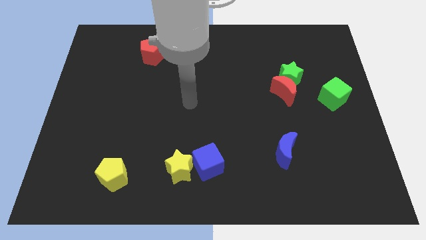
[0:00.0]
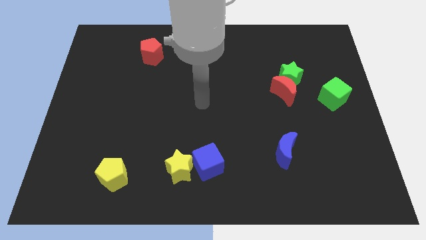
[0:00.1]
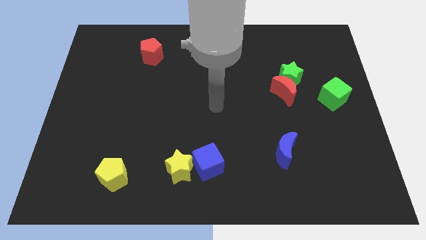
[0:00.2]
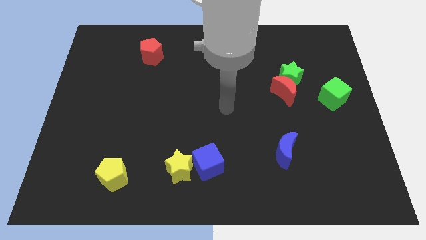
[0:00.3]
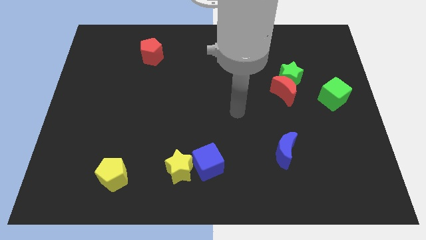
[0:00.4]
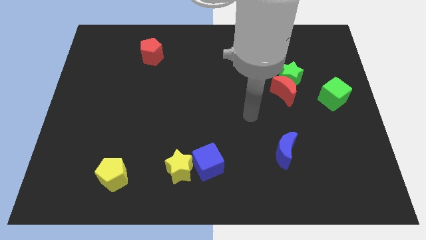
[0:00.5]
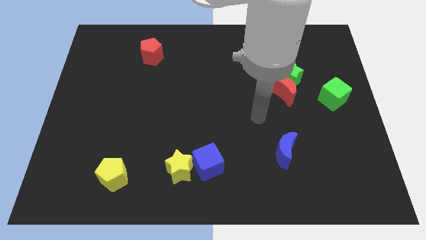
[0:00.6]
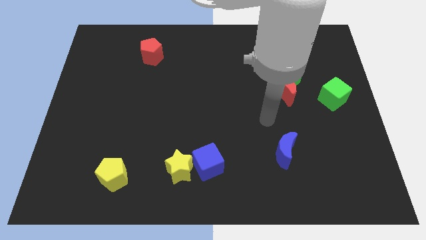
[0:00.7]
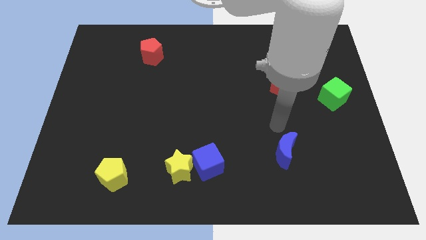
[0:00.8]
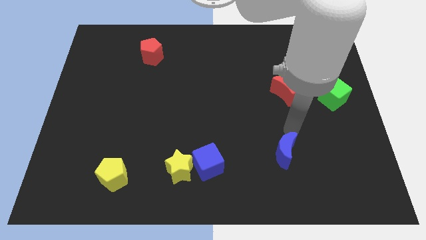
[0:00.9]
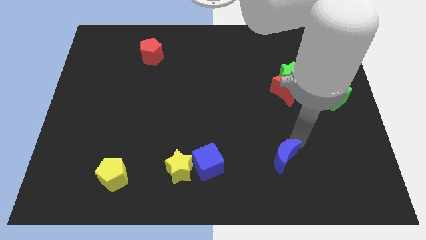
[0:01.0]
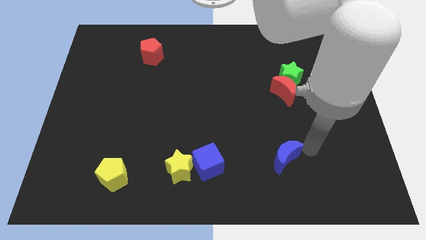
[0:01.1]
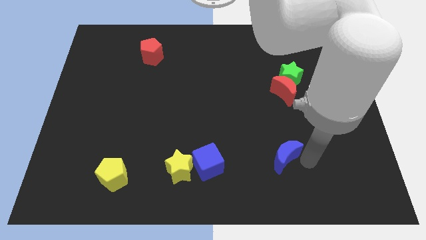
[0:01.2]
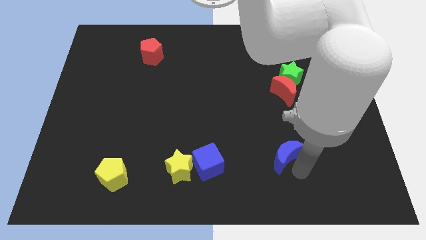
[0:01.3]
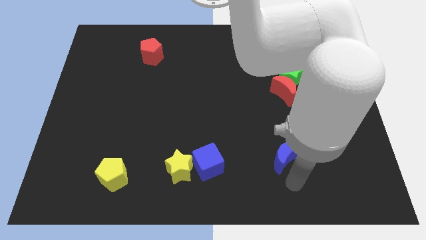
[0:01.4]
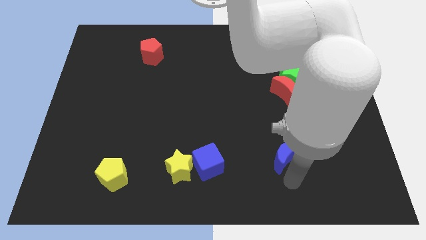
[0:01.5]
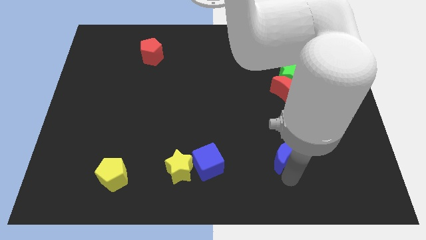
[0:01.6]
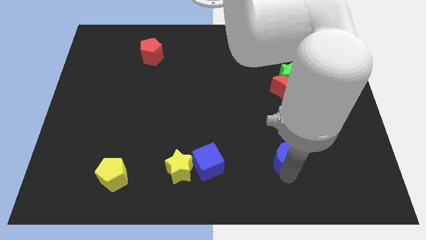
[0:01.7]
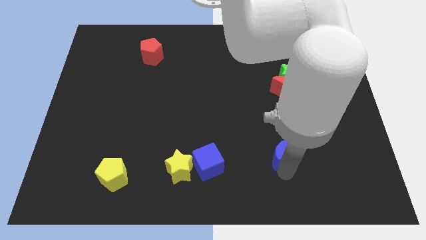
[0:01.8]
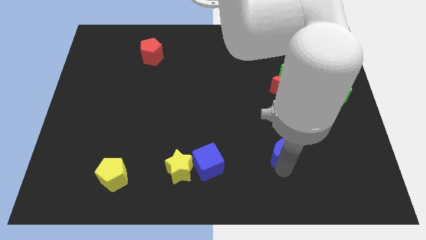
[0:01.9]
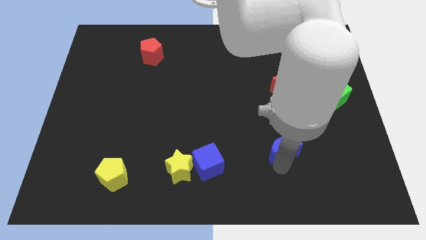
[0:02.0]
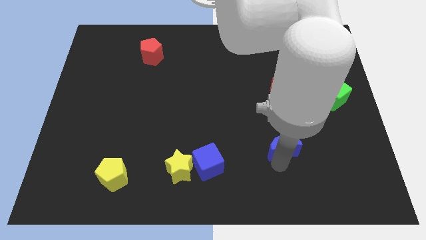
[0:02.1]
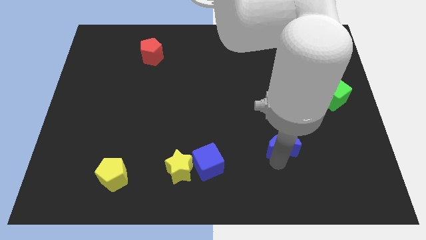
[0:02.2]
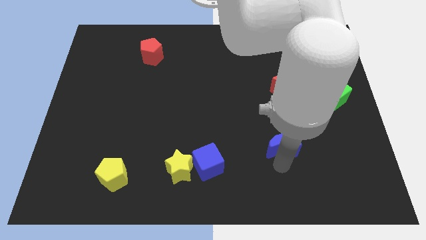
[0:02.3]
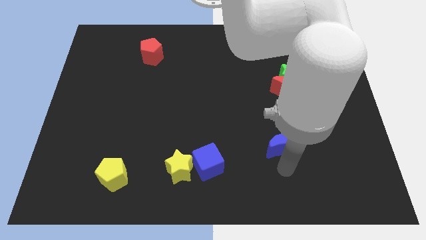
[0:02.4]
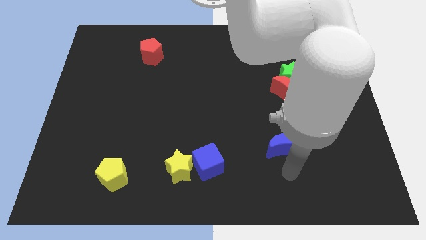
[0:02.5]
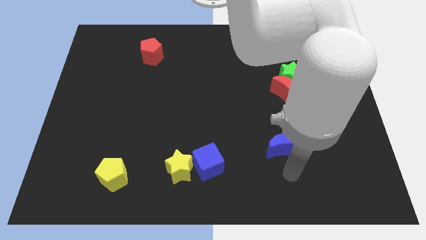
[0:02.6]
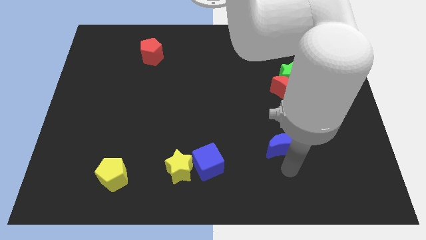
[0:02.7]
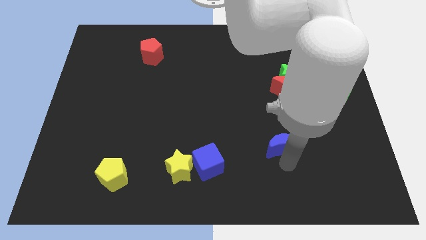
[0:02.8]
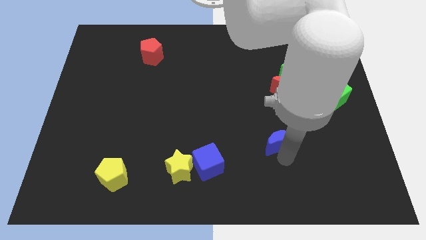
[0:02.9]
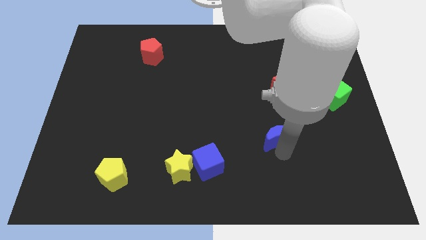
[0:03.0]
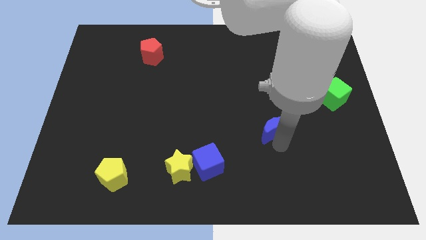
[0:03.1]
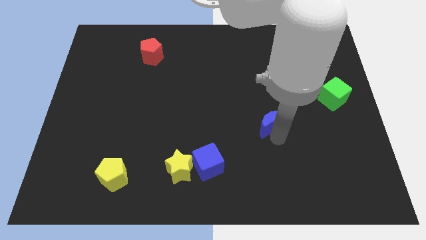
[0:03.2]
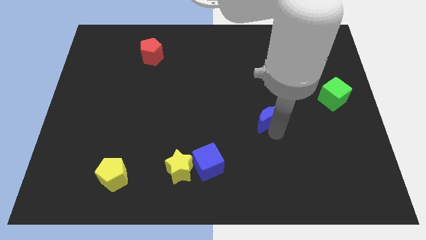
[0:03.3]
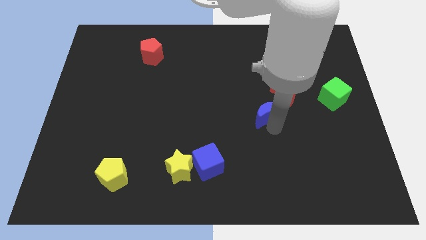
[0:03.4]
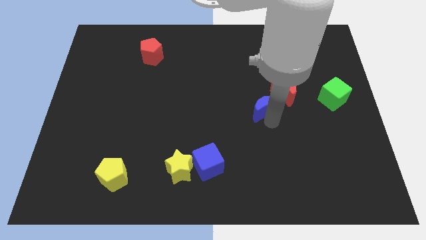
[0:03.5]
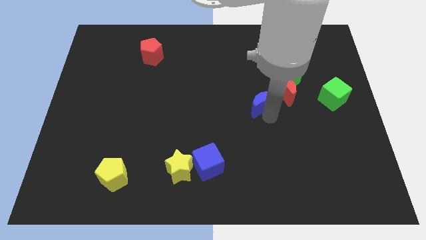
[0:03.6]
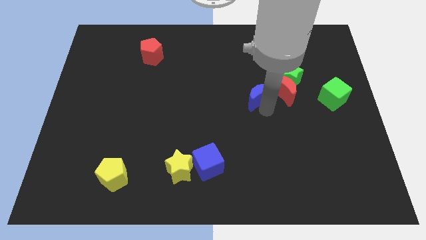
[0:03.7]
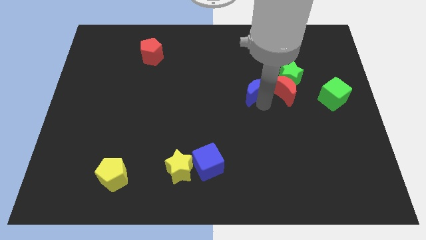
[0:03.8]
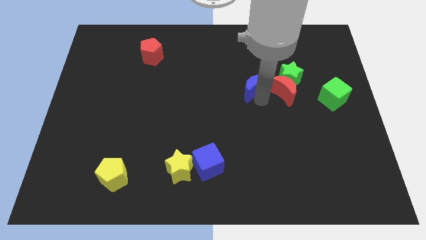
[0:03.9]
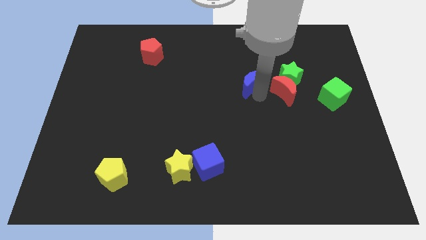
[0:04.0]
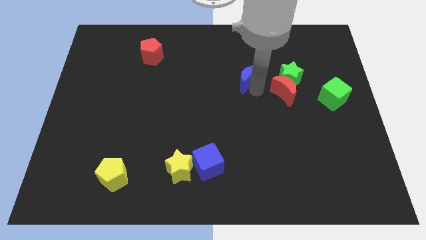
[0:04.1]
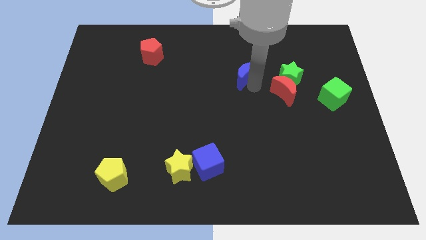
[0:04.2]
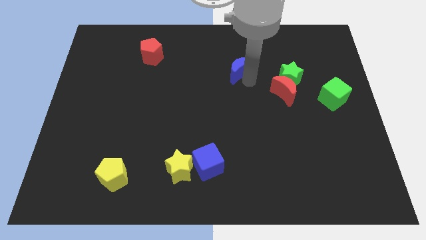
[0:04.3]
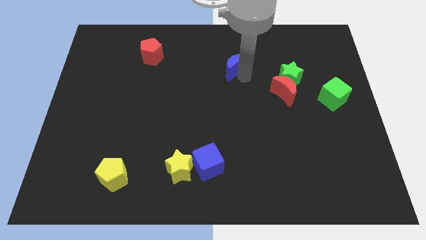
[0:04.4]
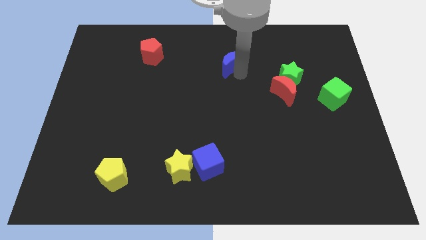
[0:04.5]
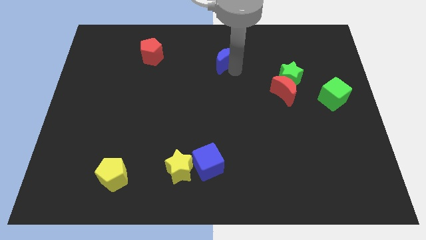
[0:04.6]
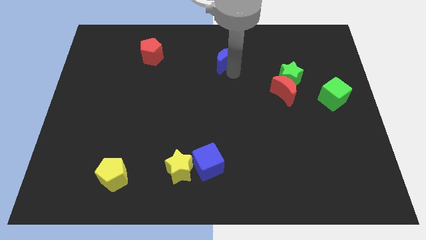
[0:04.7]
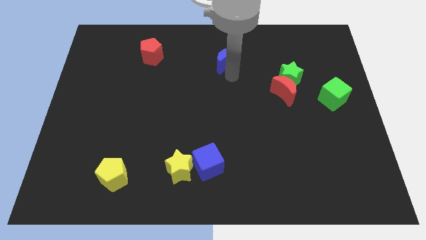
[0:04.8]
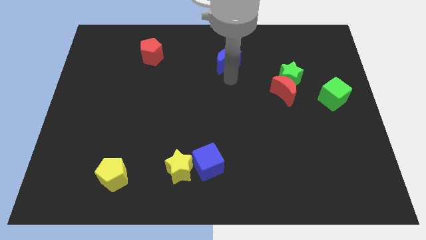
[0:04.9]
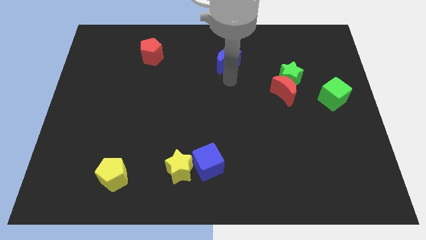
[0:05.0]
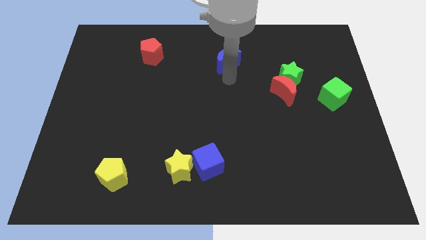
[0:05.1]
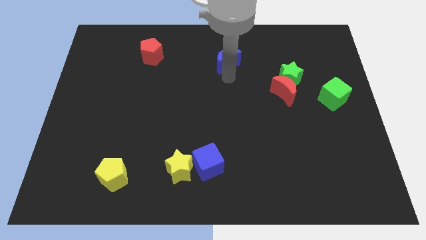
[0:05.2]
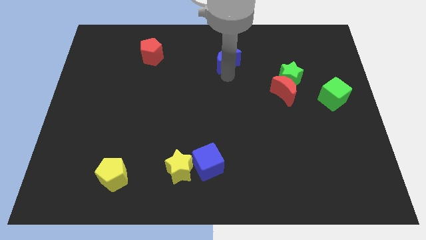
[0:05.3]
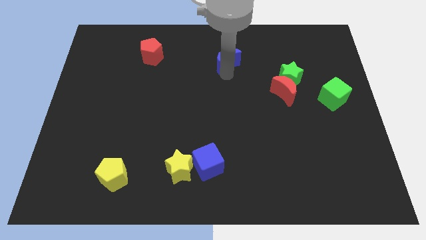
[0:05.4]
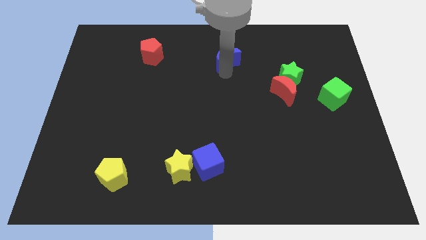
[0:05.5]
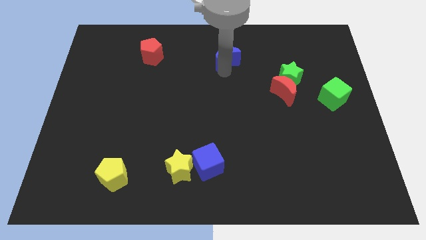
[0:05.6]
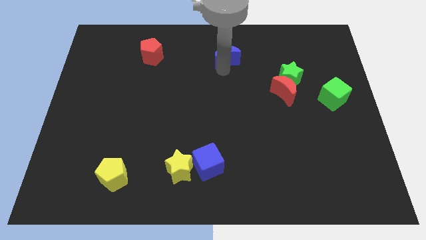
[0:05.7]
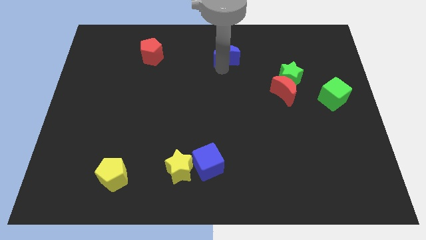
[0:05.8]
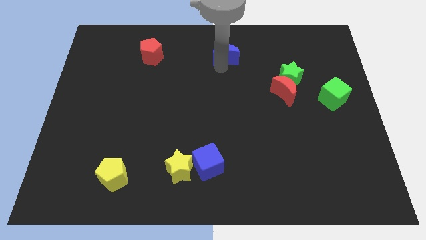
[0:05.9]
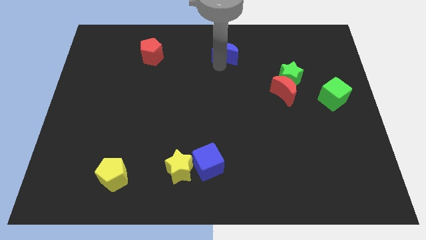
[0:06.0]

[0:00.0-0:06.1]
push the blue moon to the top side
